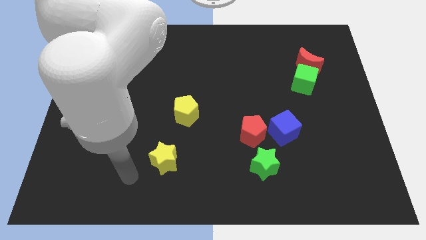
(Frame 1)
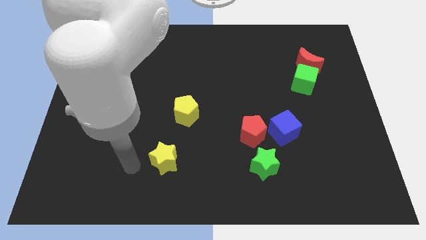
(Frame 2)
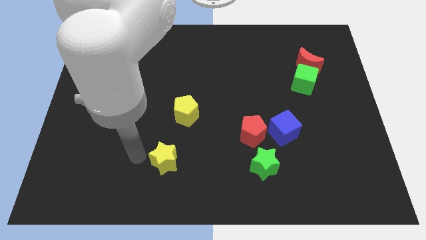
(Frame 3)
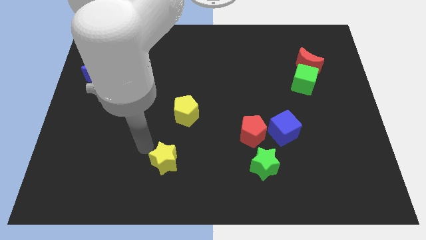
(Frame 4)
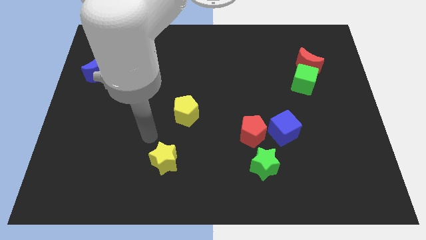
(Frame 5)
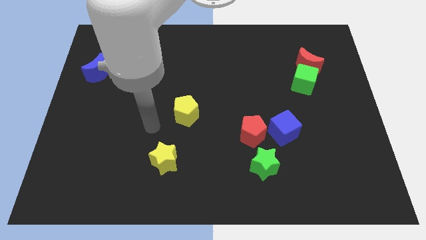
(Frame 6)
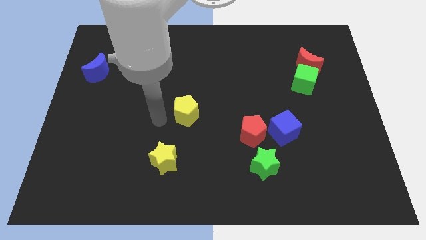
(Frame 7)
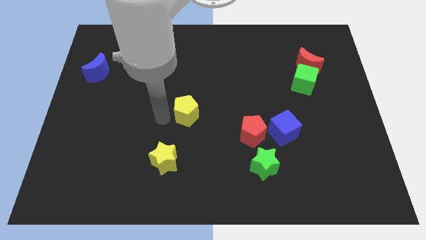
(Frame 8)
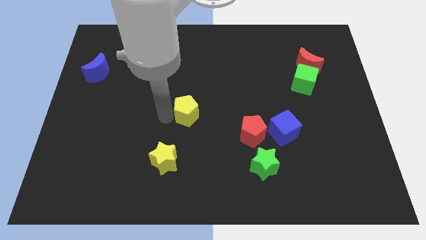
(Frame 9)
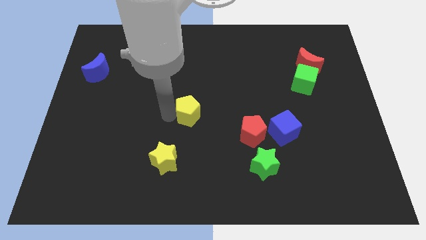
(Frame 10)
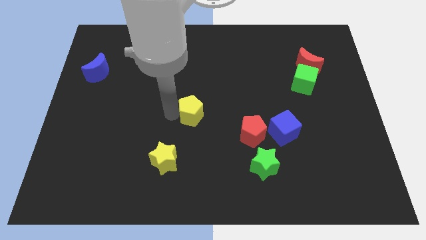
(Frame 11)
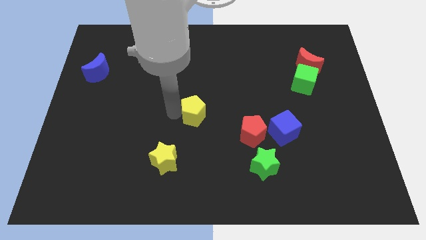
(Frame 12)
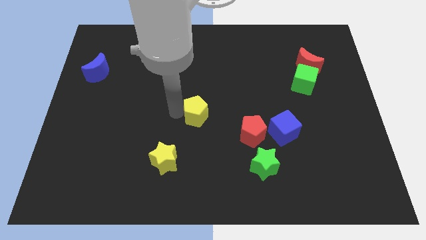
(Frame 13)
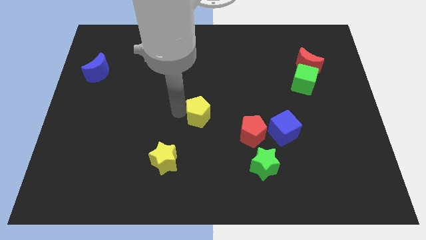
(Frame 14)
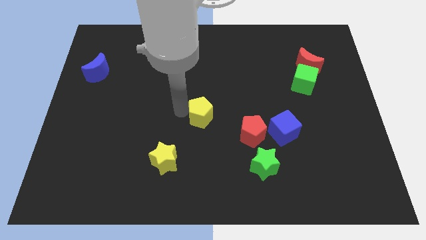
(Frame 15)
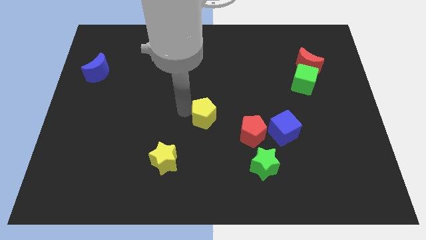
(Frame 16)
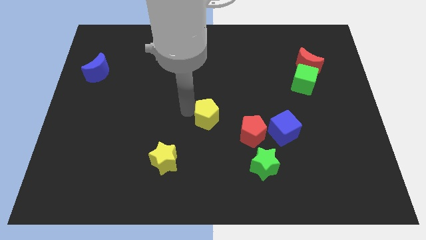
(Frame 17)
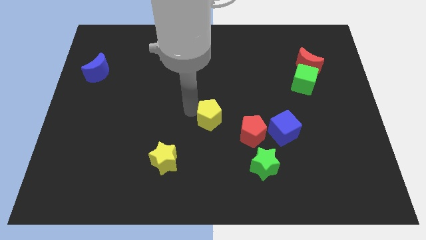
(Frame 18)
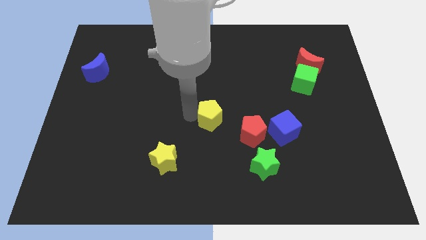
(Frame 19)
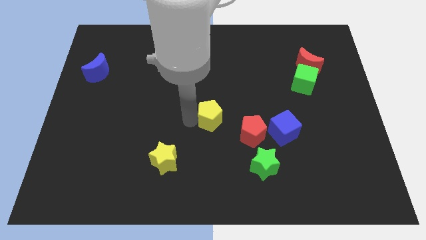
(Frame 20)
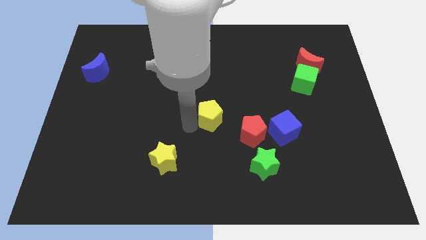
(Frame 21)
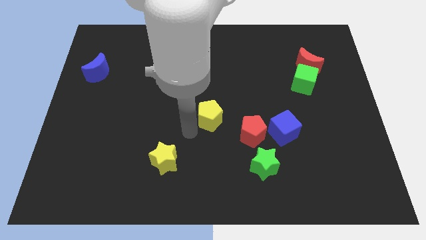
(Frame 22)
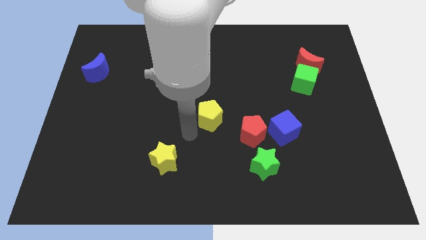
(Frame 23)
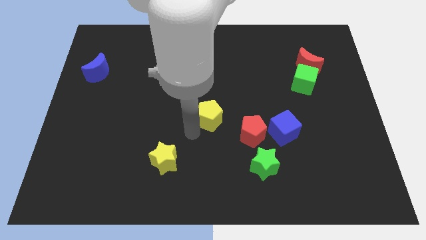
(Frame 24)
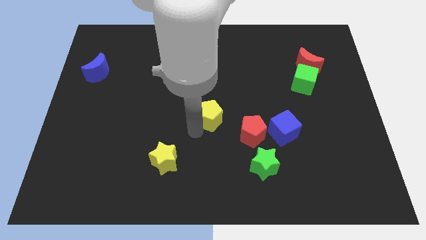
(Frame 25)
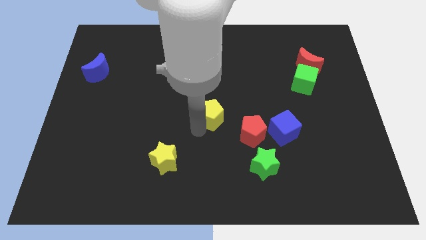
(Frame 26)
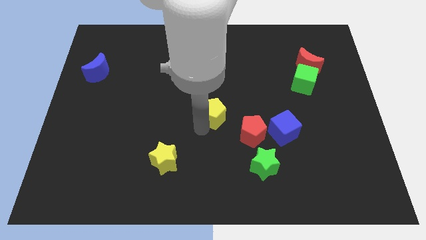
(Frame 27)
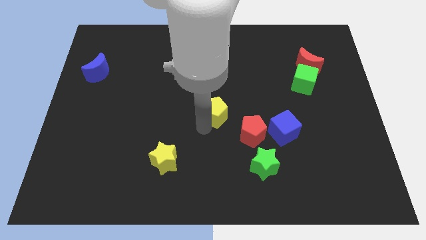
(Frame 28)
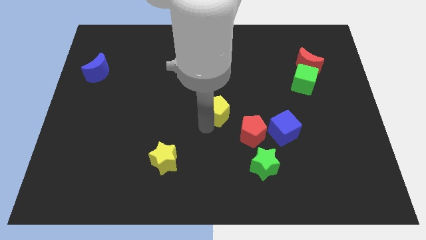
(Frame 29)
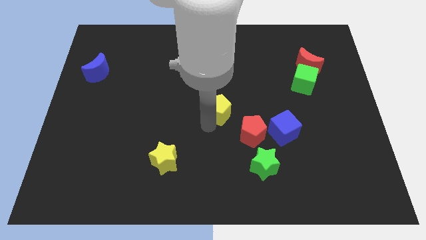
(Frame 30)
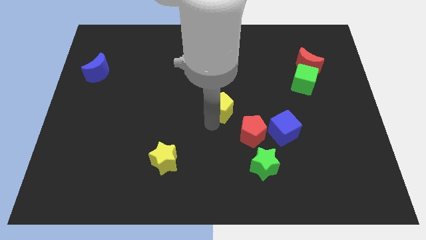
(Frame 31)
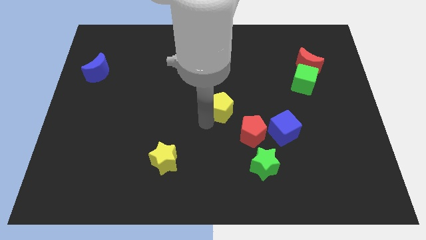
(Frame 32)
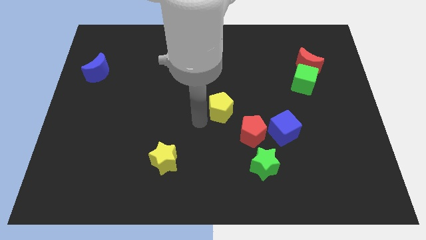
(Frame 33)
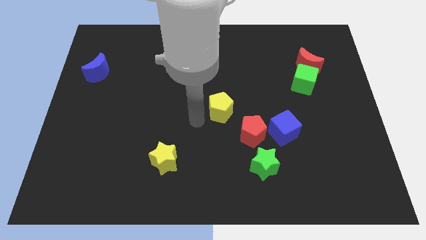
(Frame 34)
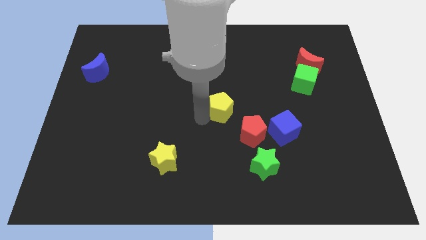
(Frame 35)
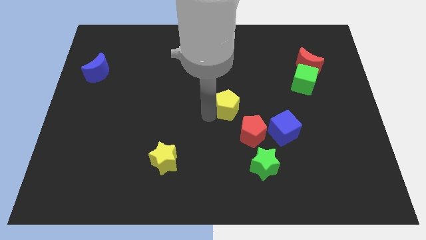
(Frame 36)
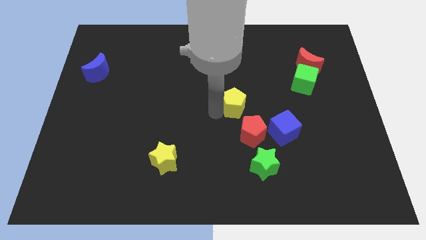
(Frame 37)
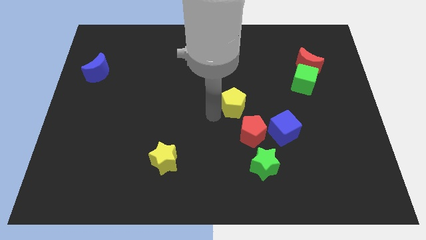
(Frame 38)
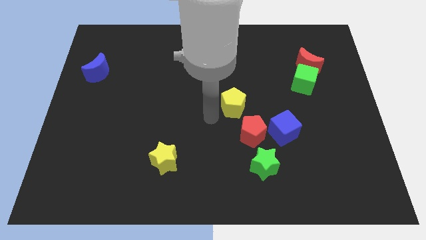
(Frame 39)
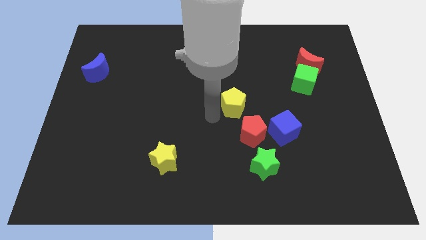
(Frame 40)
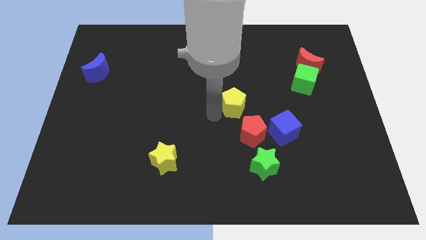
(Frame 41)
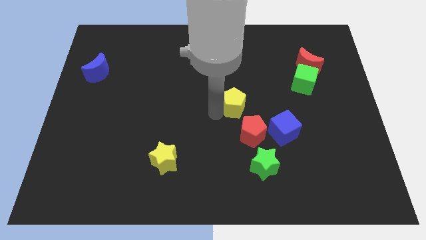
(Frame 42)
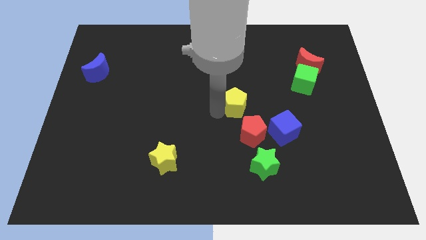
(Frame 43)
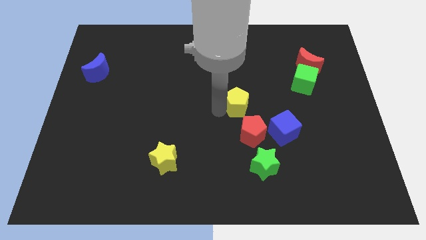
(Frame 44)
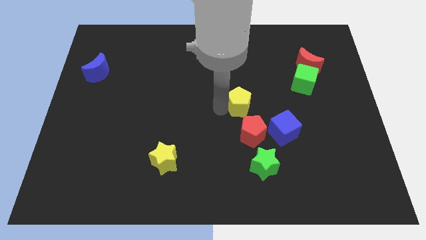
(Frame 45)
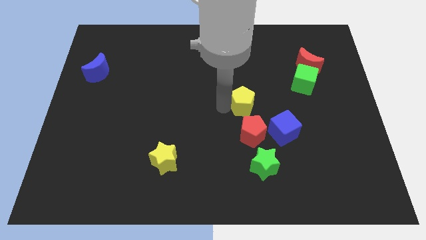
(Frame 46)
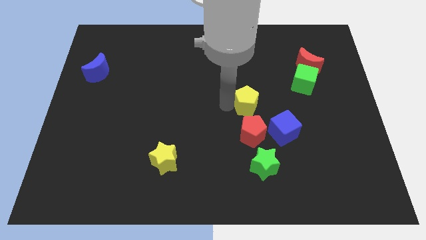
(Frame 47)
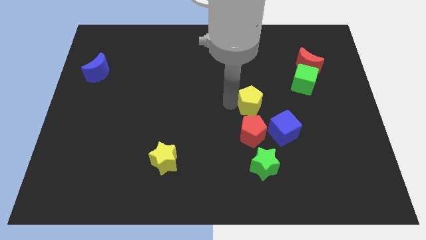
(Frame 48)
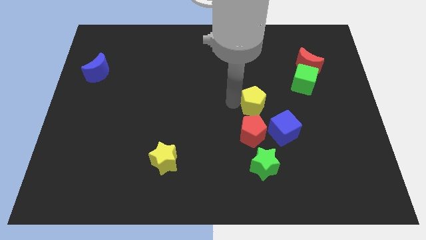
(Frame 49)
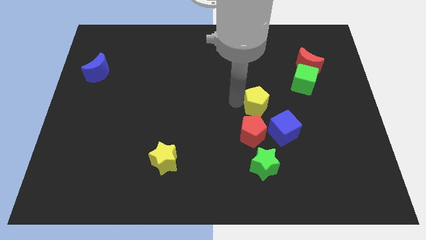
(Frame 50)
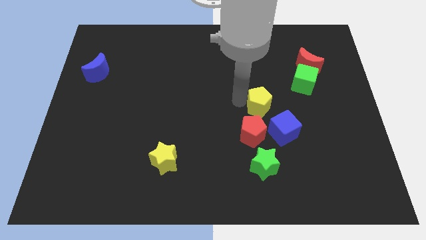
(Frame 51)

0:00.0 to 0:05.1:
push the yellow pentagon above the blue cube

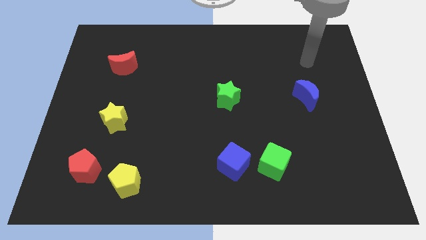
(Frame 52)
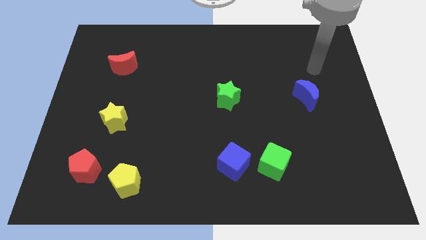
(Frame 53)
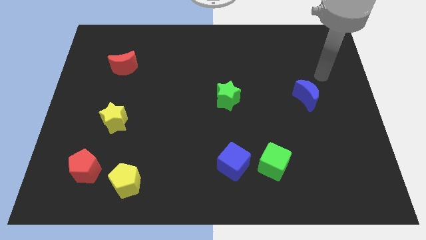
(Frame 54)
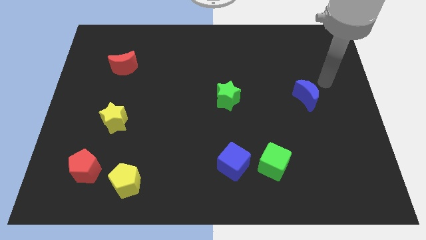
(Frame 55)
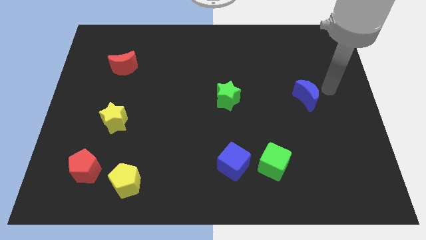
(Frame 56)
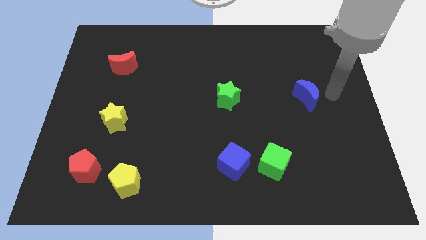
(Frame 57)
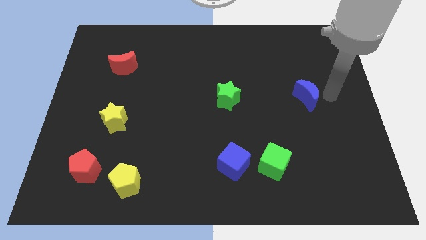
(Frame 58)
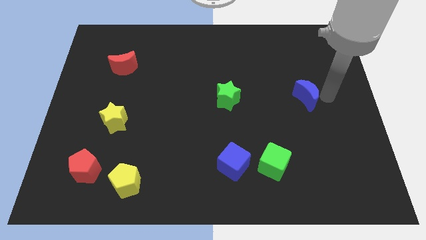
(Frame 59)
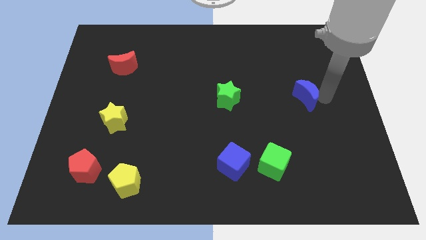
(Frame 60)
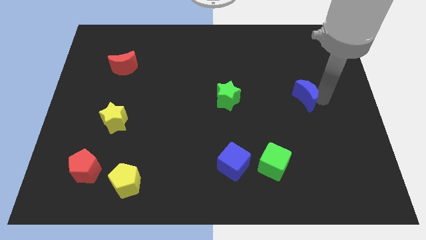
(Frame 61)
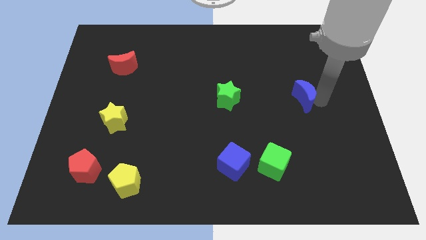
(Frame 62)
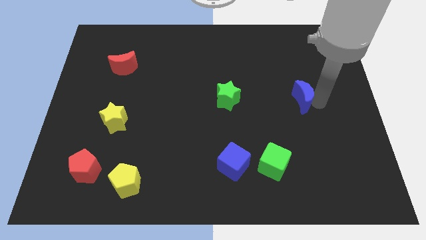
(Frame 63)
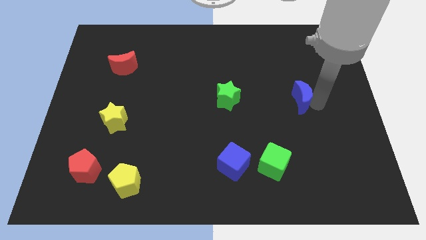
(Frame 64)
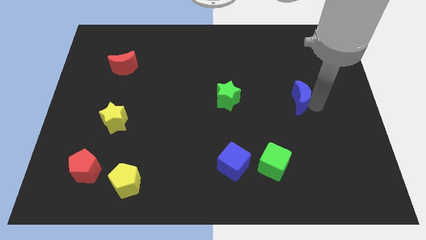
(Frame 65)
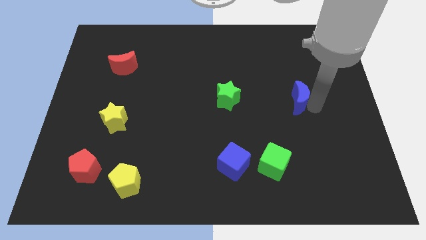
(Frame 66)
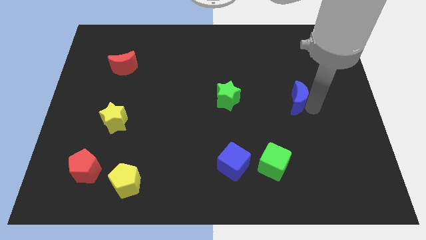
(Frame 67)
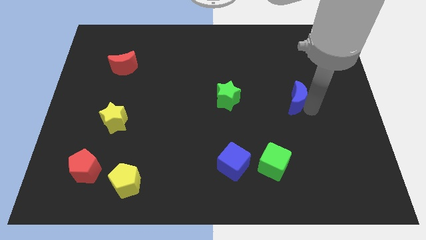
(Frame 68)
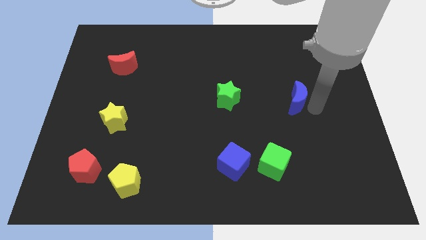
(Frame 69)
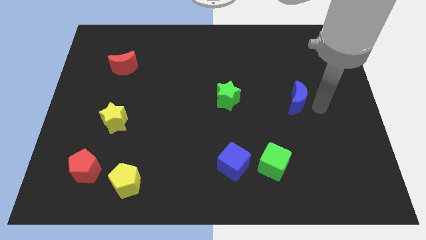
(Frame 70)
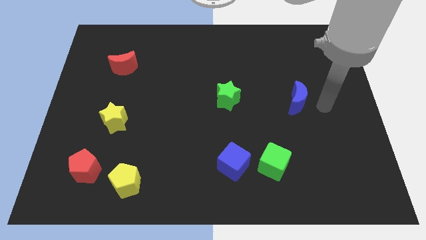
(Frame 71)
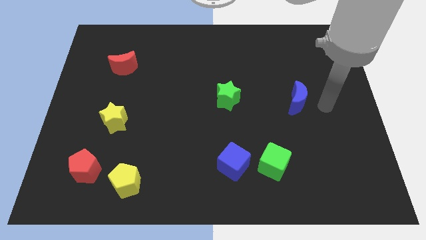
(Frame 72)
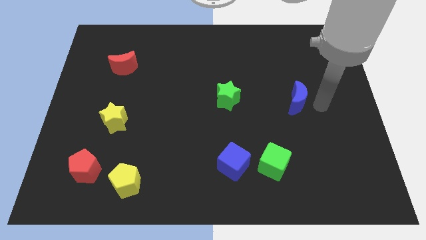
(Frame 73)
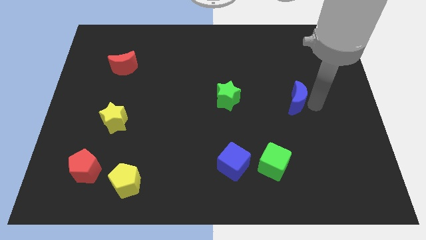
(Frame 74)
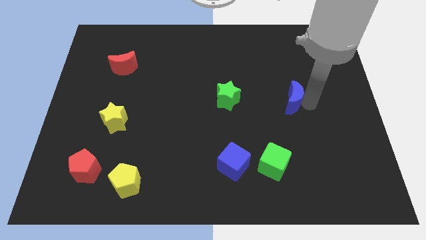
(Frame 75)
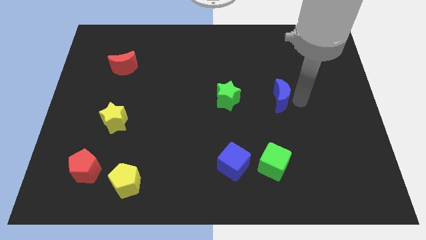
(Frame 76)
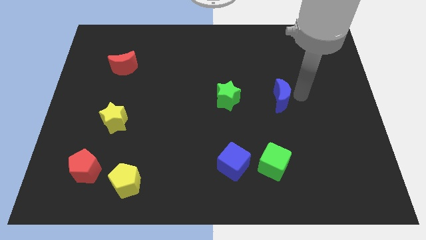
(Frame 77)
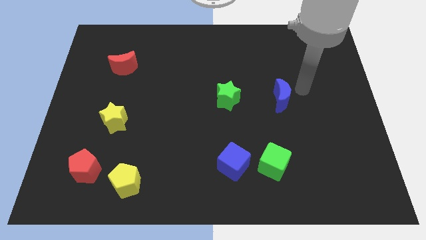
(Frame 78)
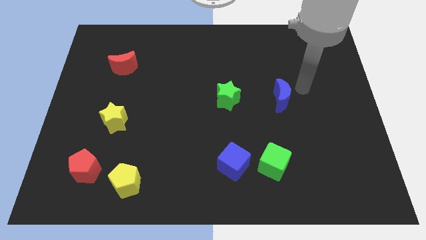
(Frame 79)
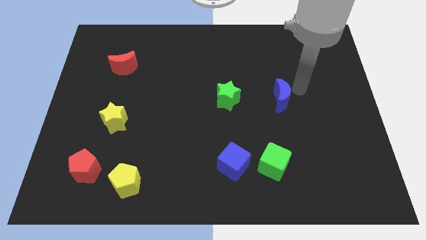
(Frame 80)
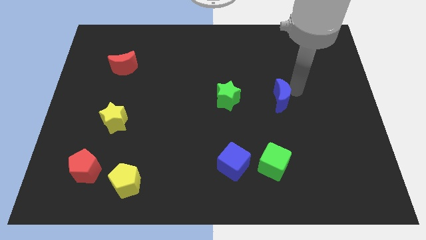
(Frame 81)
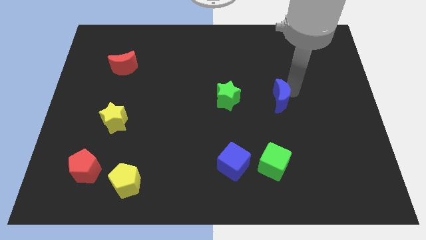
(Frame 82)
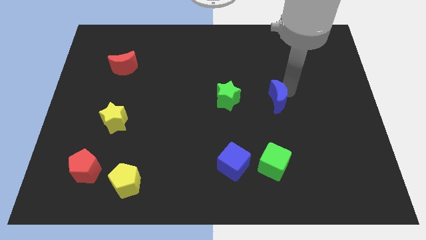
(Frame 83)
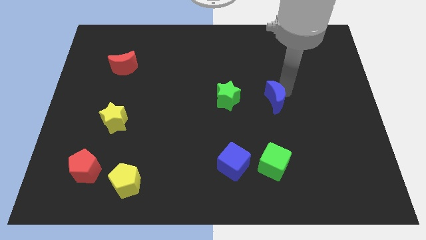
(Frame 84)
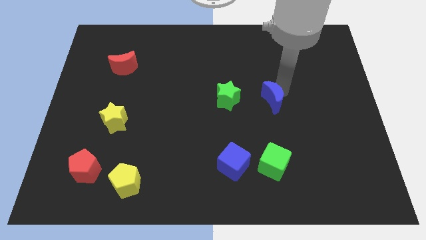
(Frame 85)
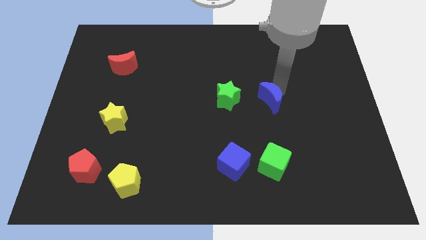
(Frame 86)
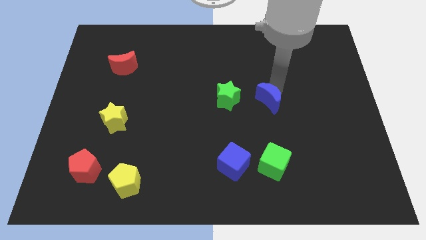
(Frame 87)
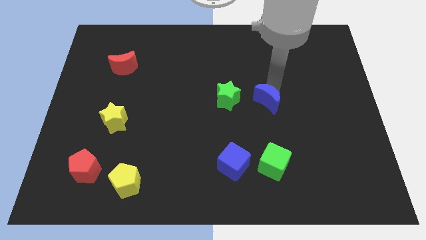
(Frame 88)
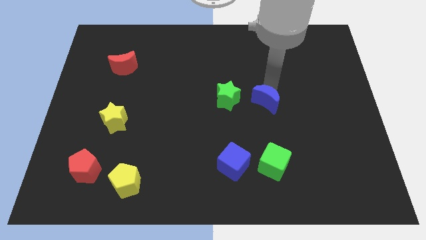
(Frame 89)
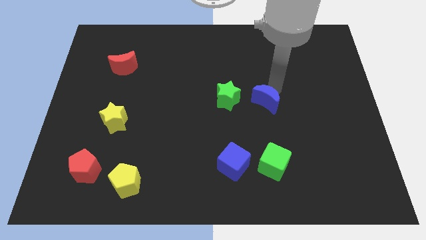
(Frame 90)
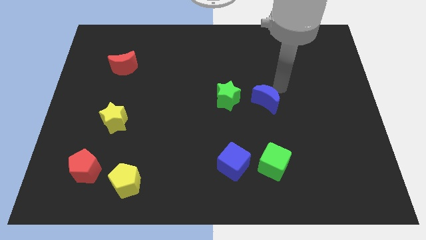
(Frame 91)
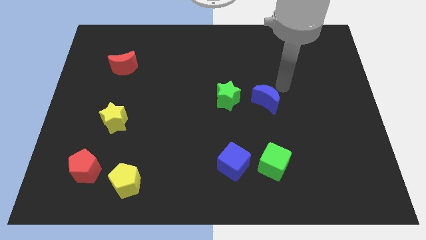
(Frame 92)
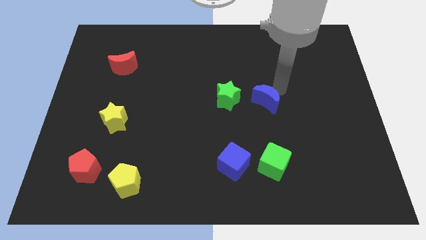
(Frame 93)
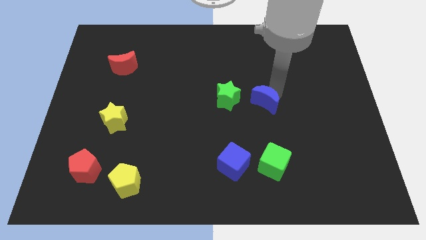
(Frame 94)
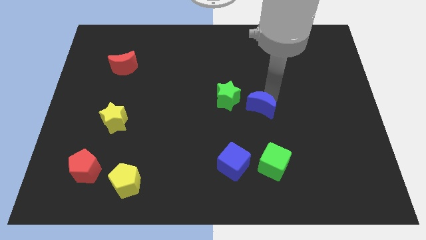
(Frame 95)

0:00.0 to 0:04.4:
slide the blue moon to the bottom right of the green star
